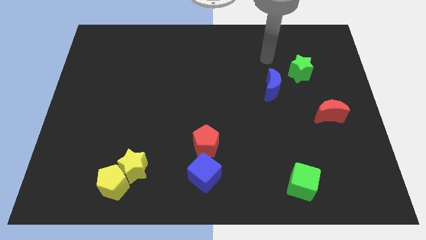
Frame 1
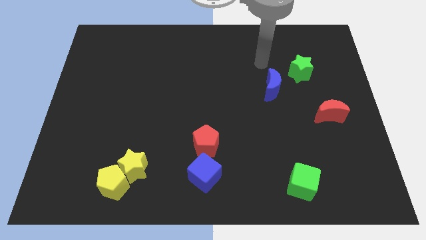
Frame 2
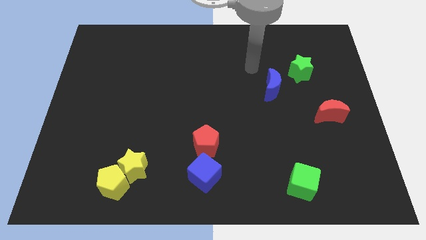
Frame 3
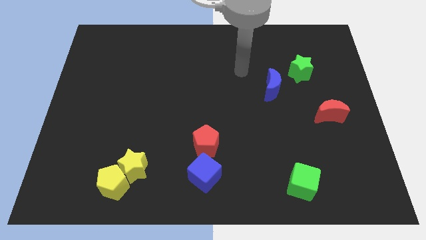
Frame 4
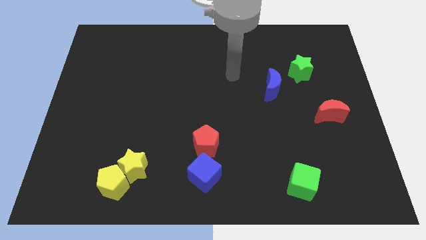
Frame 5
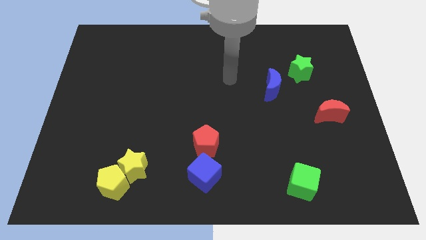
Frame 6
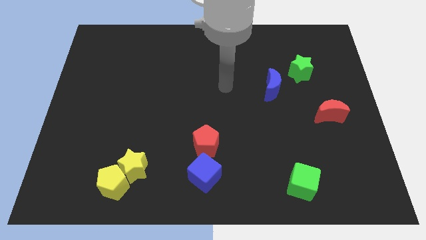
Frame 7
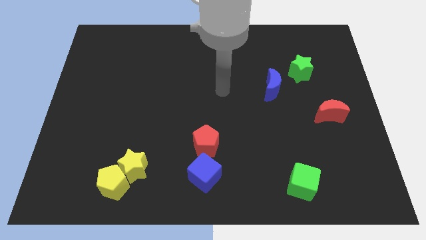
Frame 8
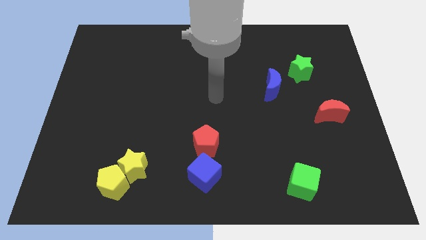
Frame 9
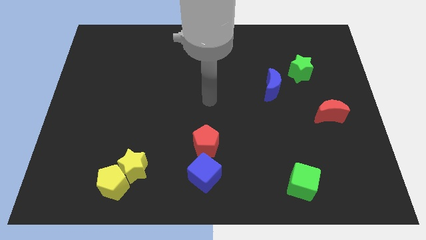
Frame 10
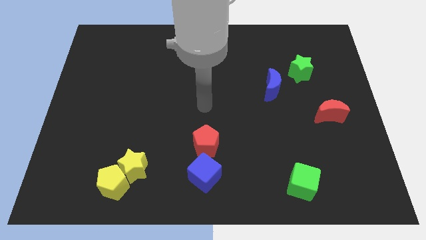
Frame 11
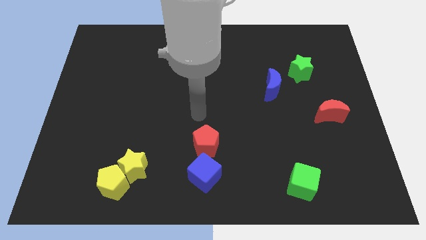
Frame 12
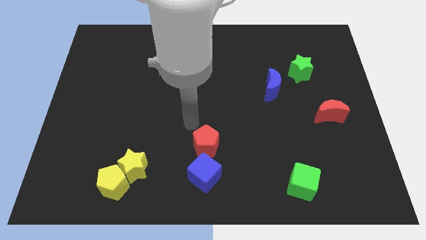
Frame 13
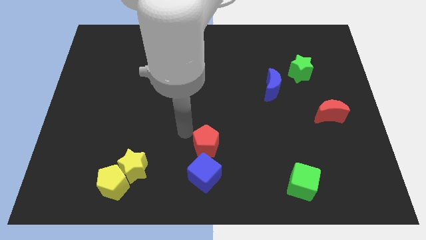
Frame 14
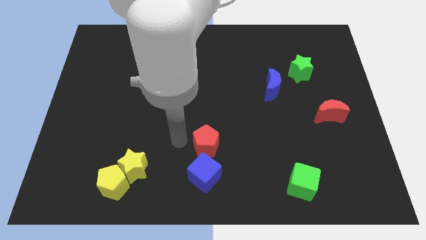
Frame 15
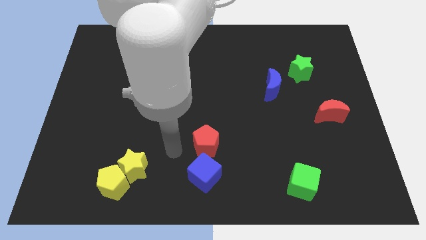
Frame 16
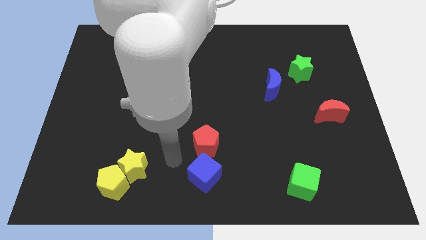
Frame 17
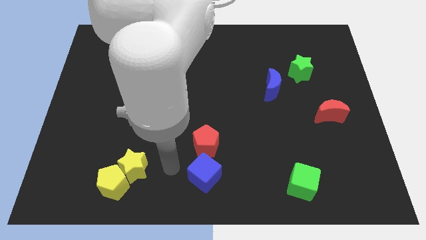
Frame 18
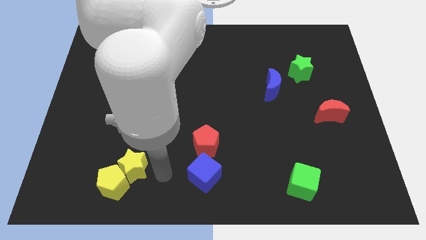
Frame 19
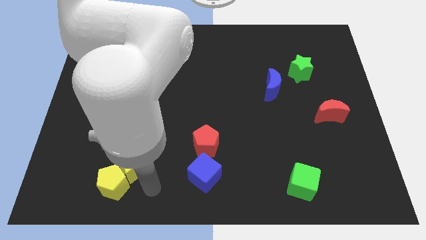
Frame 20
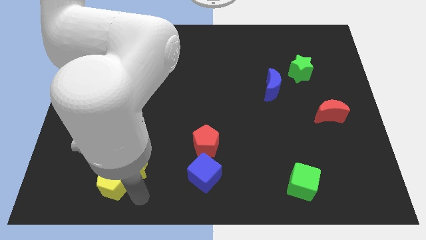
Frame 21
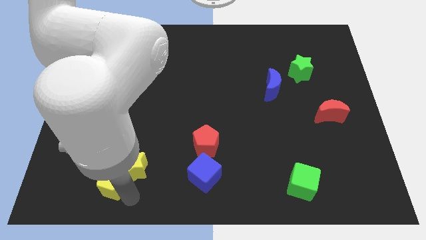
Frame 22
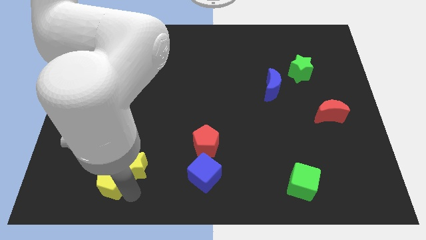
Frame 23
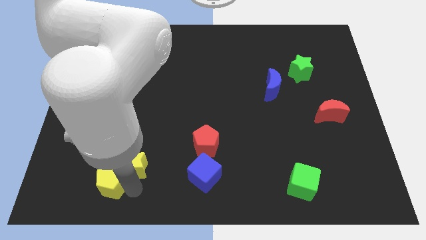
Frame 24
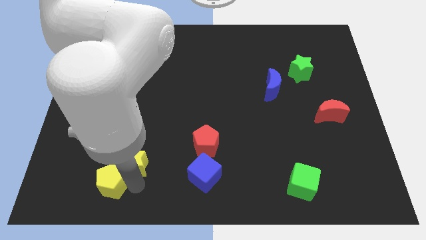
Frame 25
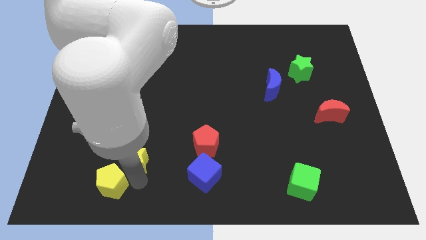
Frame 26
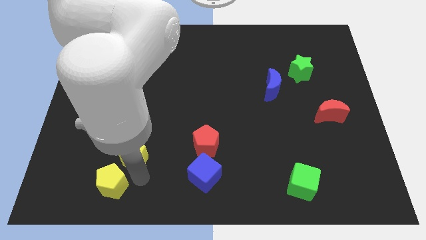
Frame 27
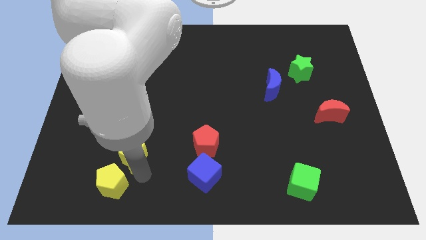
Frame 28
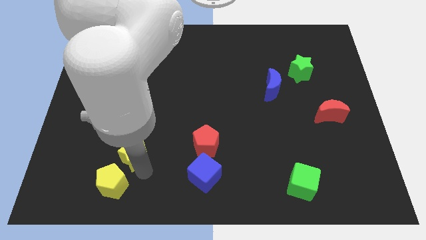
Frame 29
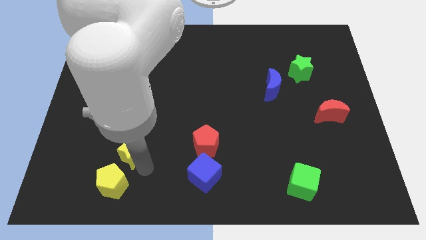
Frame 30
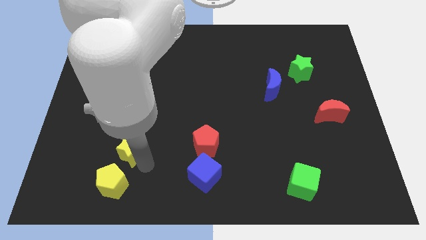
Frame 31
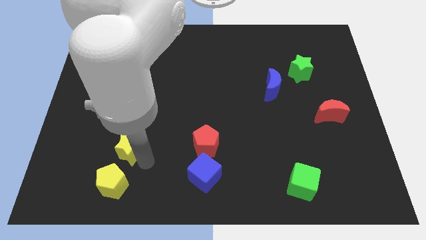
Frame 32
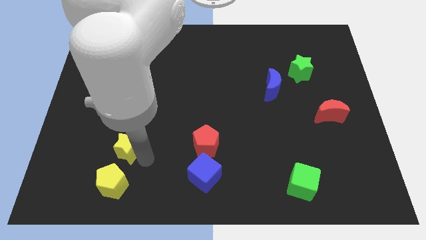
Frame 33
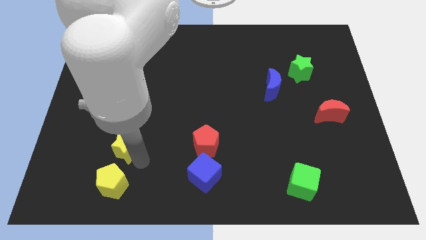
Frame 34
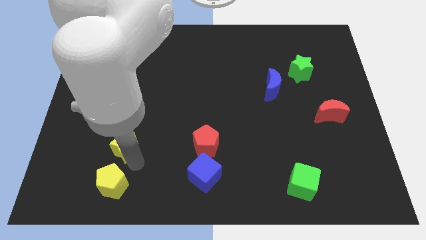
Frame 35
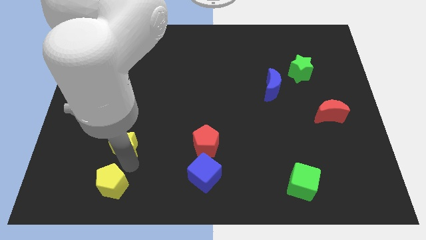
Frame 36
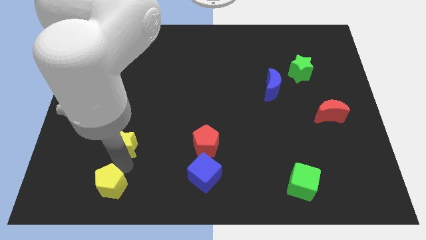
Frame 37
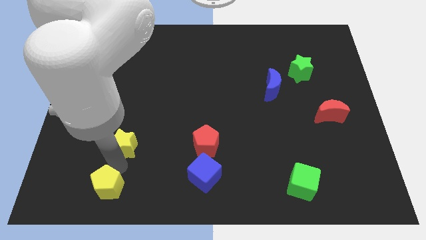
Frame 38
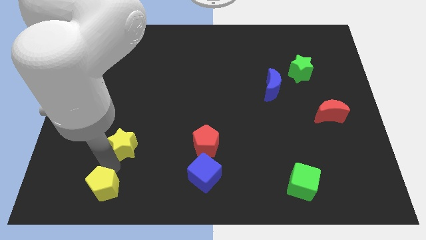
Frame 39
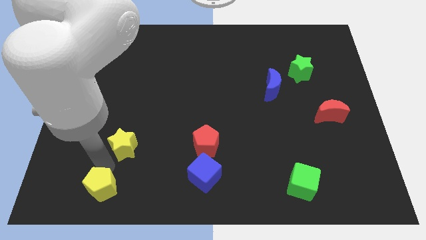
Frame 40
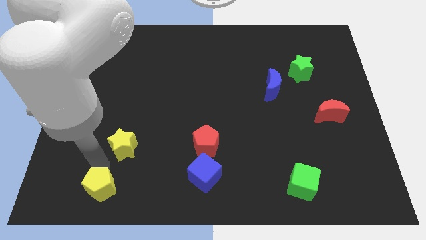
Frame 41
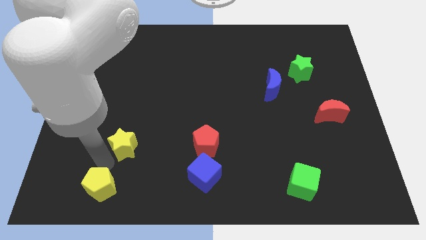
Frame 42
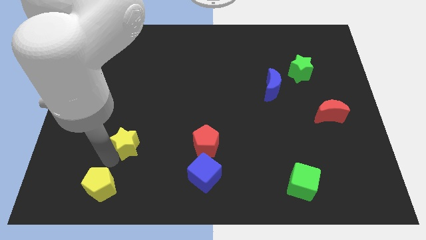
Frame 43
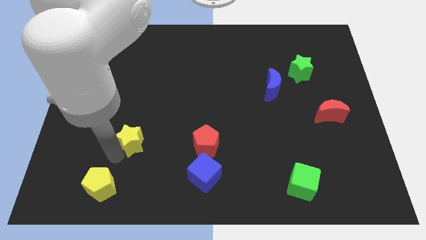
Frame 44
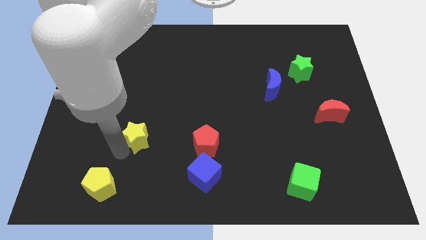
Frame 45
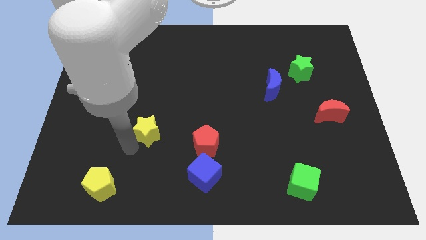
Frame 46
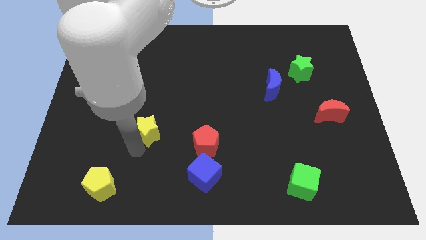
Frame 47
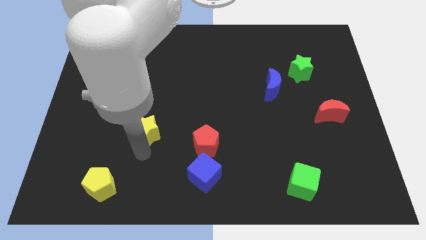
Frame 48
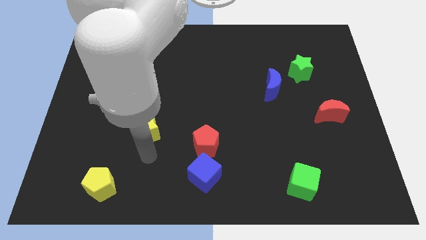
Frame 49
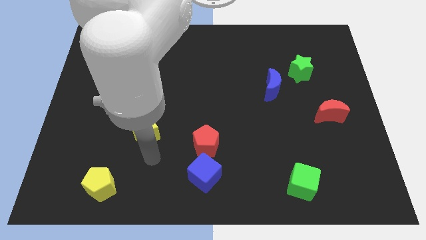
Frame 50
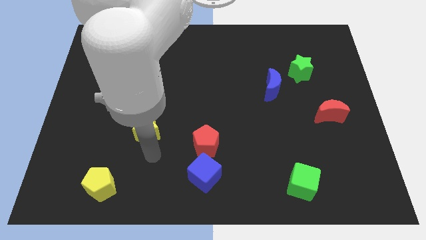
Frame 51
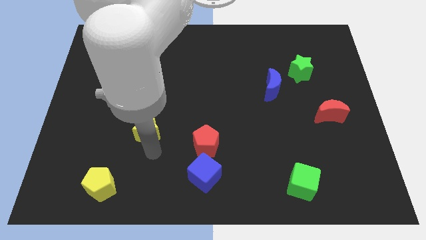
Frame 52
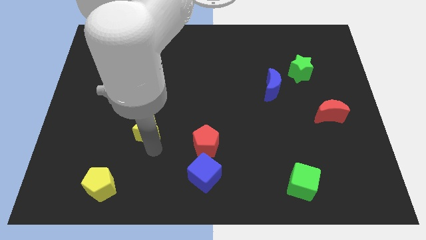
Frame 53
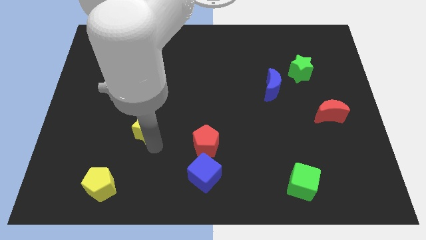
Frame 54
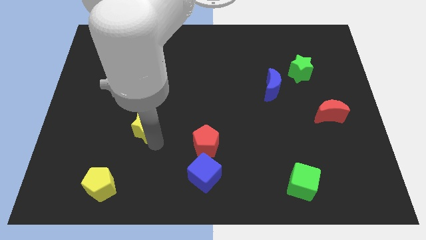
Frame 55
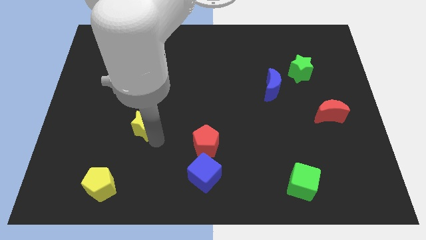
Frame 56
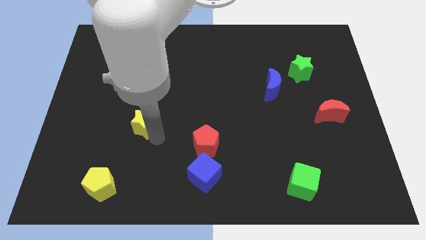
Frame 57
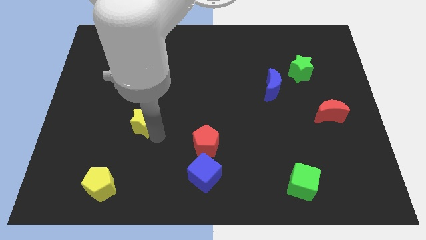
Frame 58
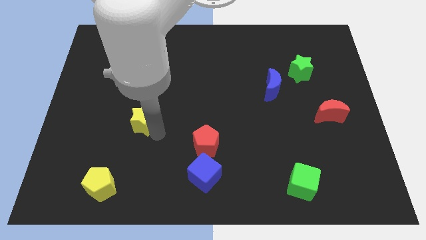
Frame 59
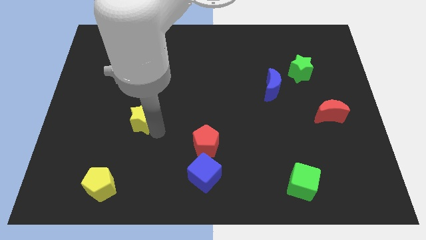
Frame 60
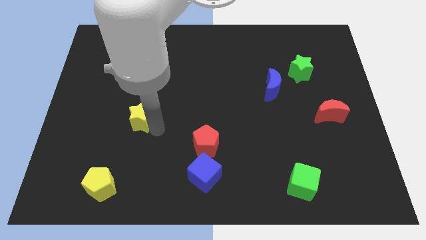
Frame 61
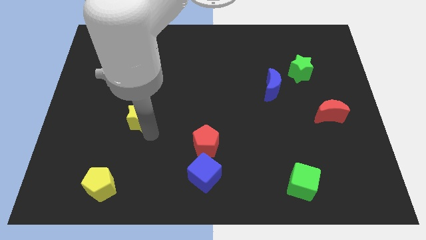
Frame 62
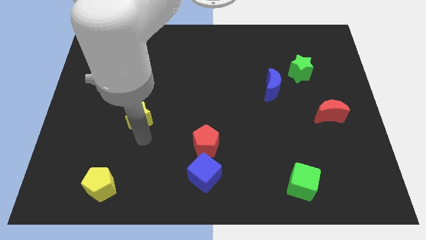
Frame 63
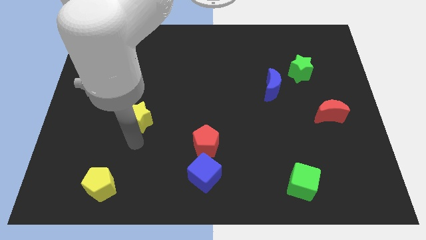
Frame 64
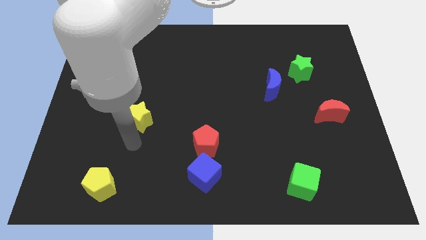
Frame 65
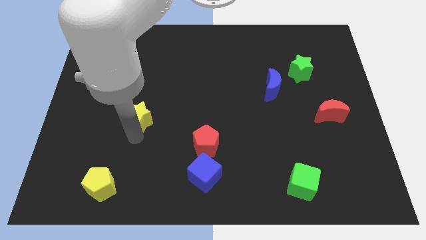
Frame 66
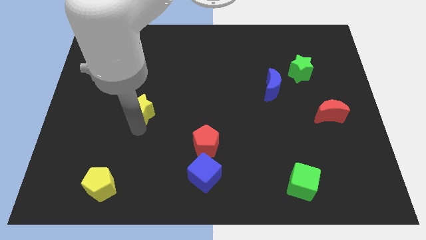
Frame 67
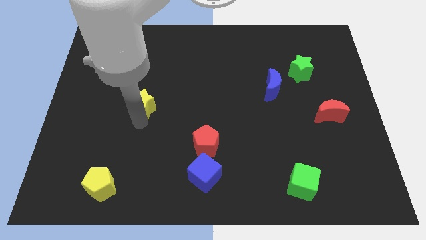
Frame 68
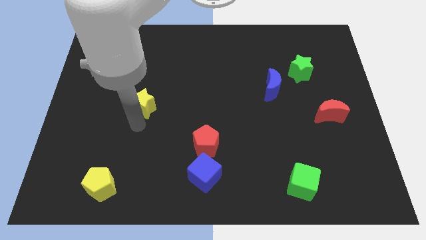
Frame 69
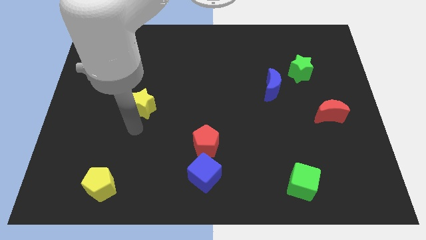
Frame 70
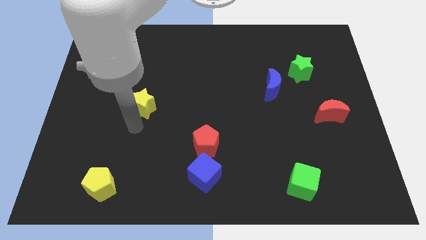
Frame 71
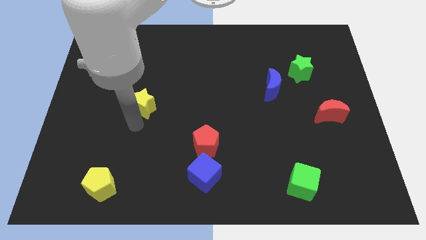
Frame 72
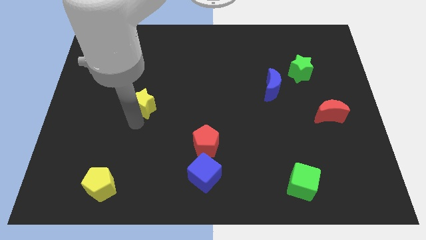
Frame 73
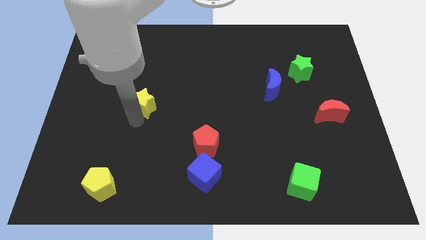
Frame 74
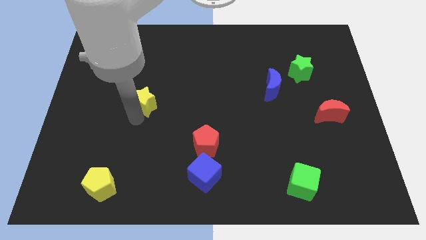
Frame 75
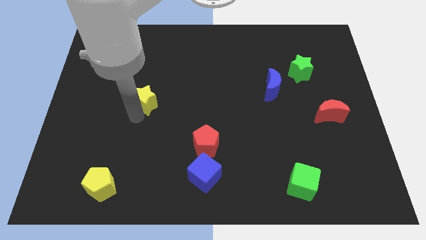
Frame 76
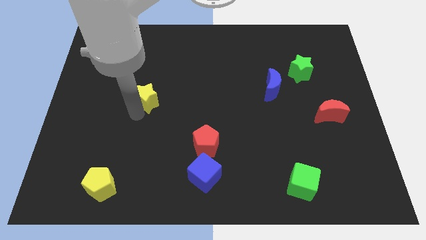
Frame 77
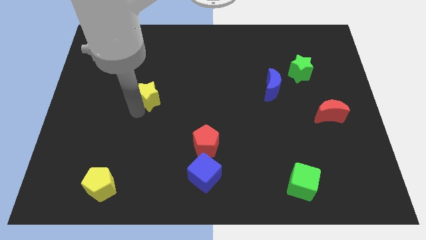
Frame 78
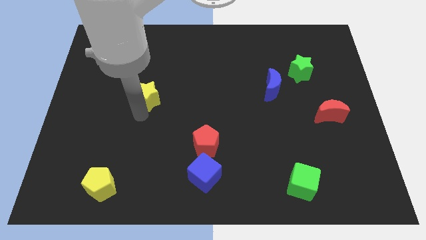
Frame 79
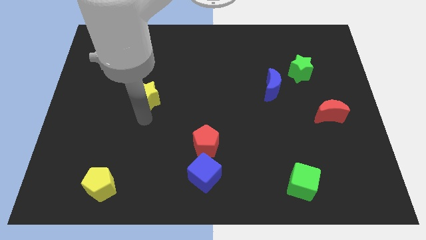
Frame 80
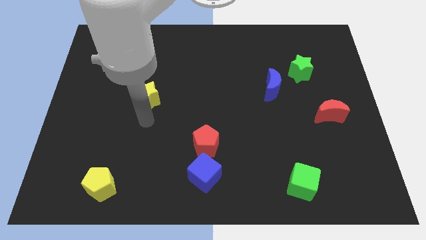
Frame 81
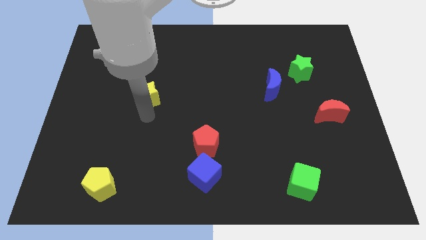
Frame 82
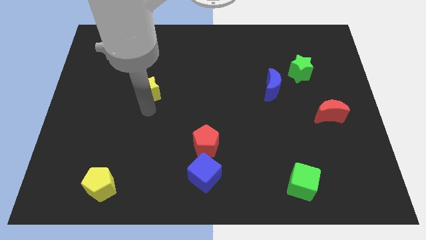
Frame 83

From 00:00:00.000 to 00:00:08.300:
slide the yellow star upwards
